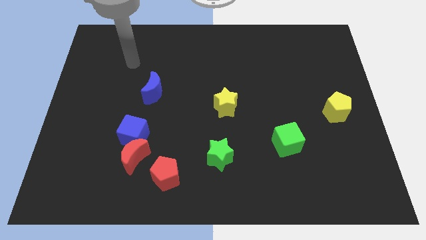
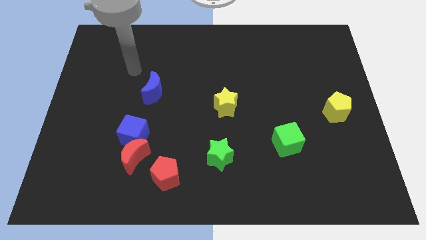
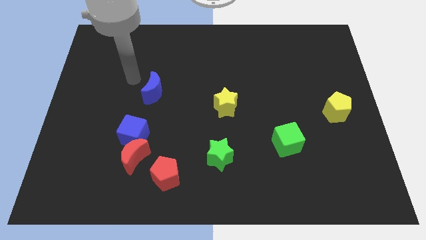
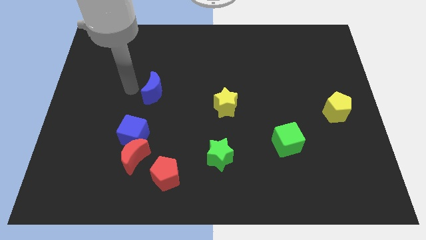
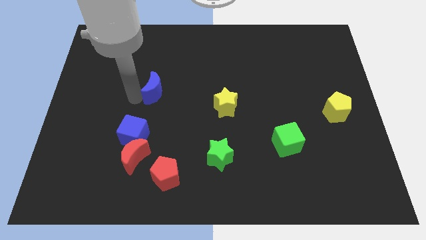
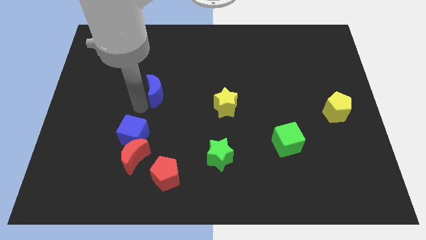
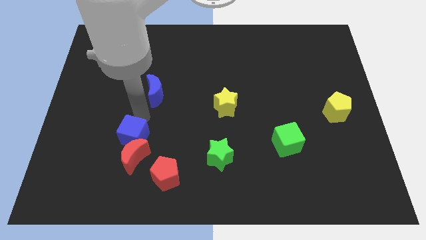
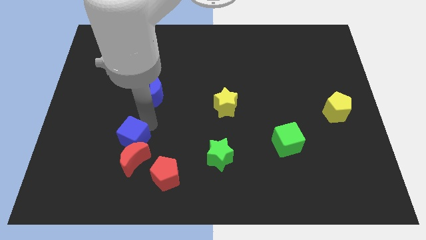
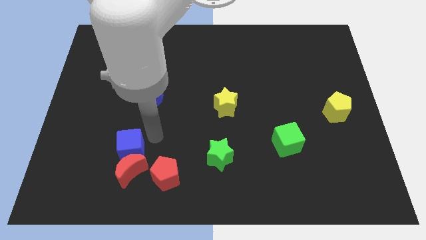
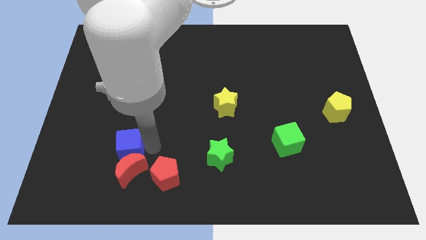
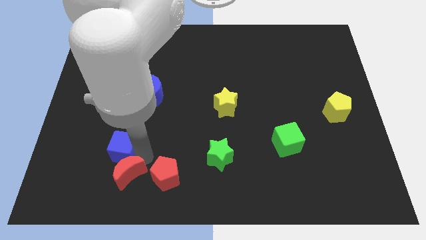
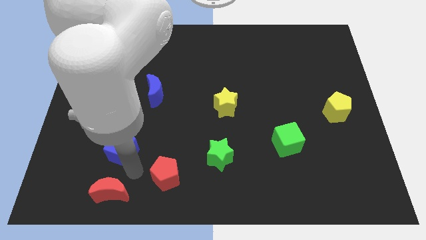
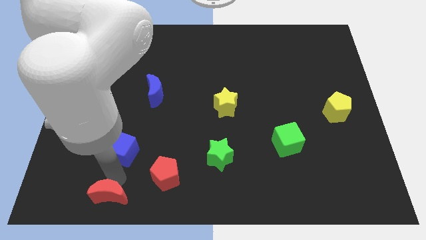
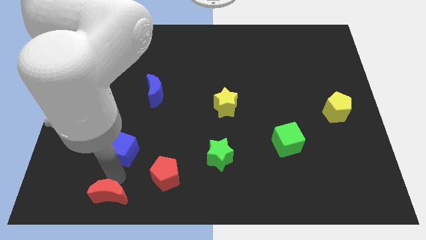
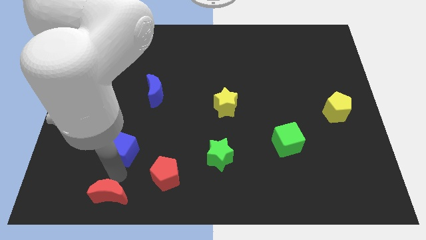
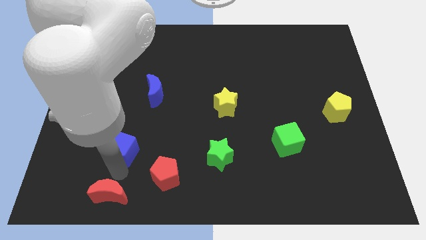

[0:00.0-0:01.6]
pull the blue cube apart from the red moon

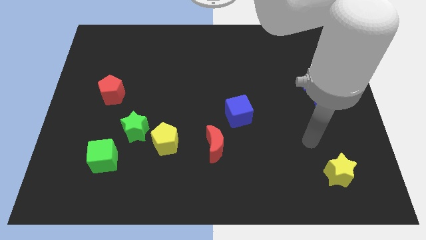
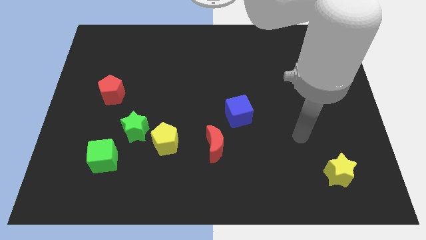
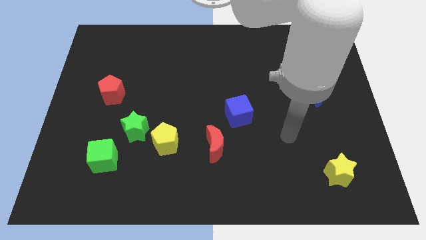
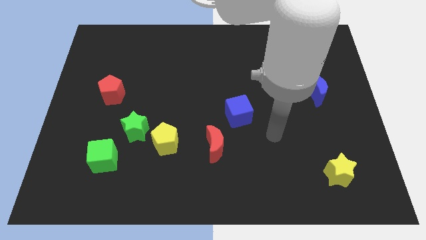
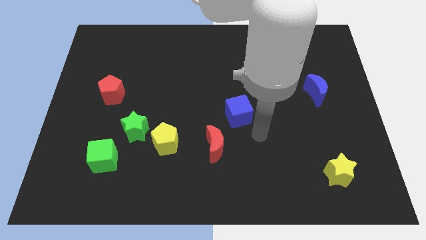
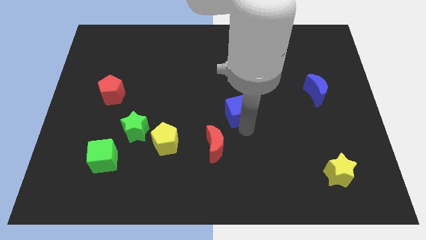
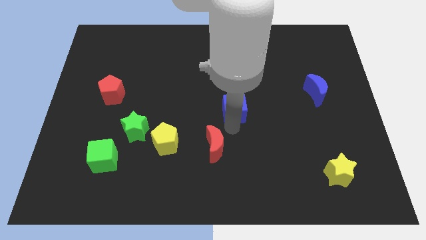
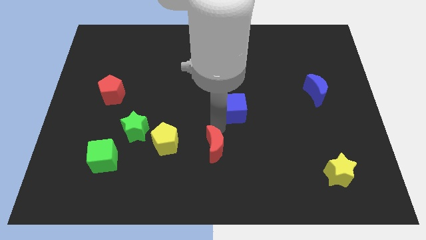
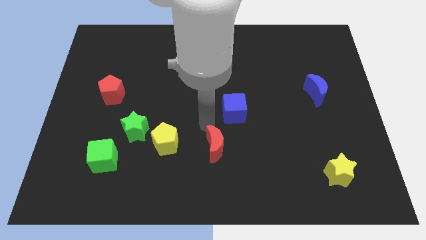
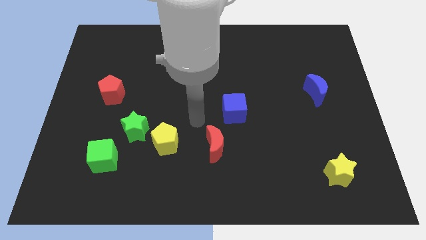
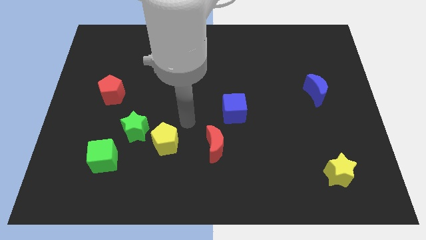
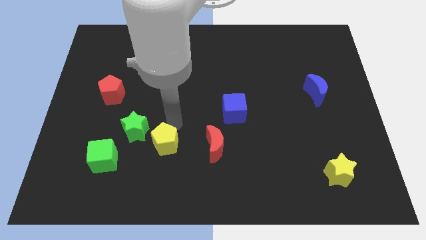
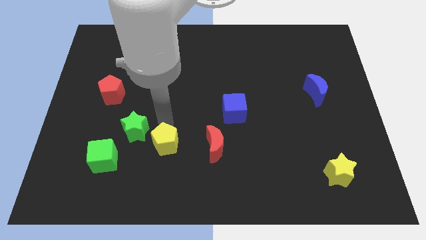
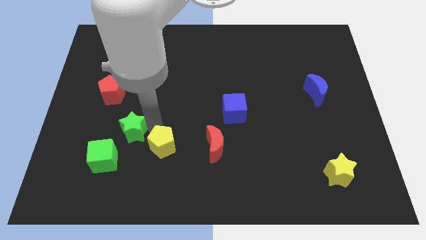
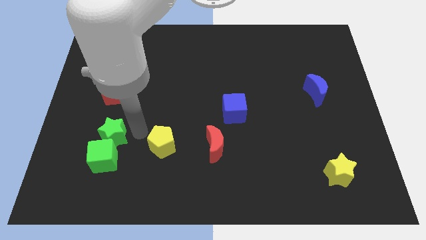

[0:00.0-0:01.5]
separate the yellow pentagon from the green star

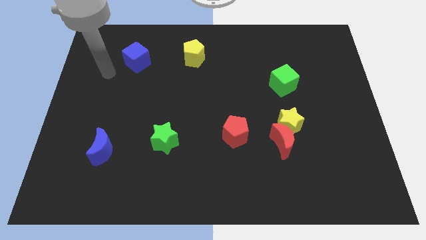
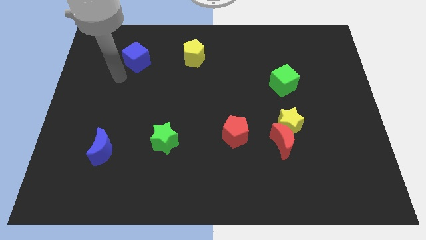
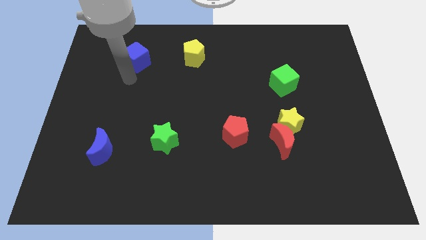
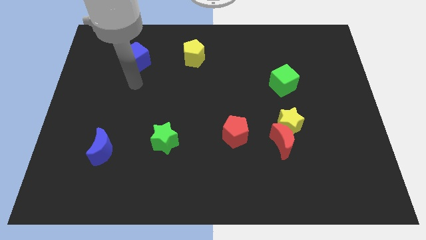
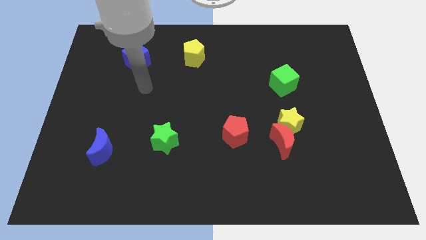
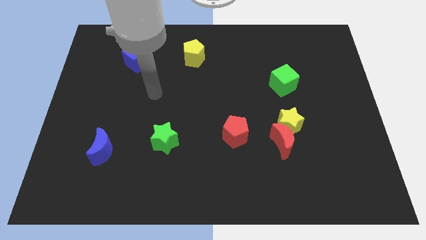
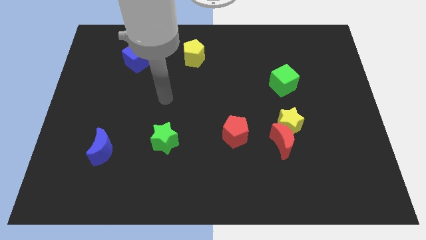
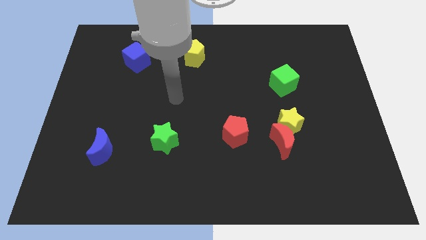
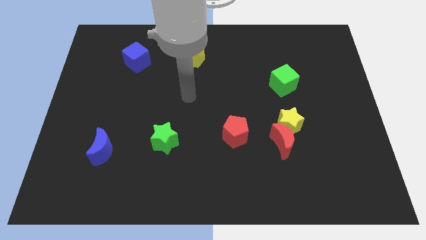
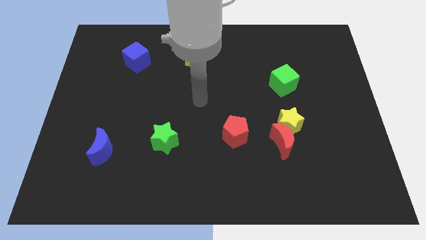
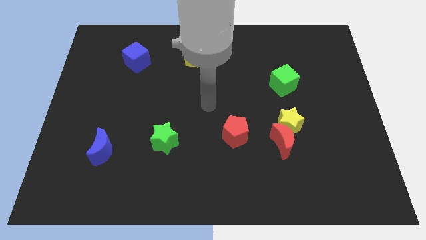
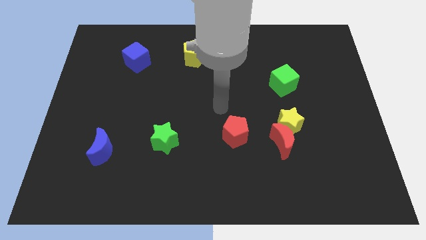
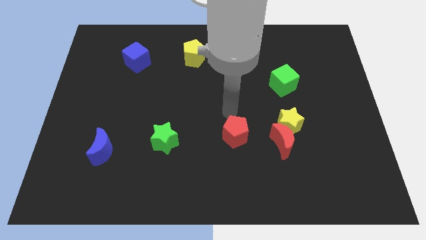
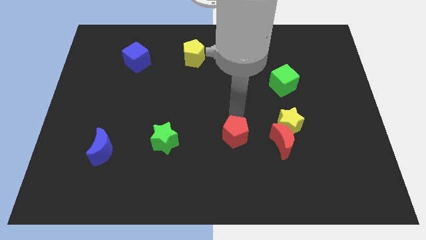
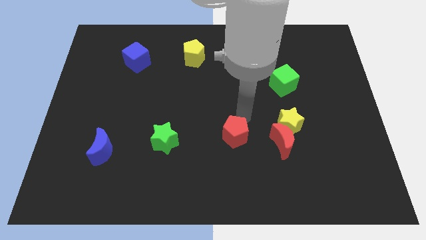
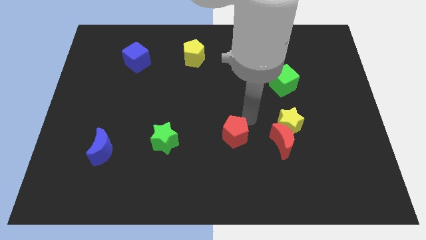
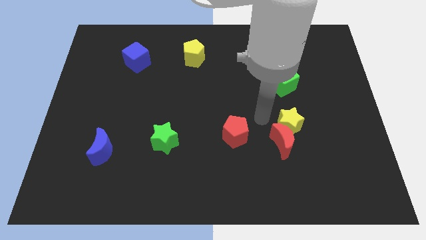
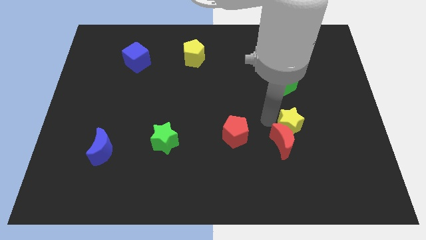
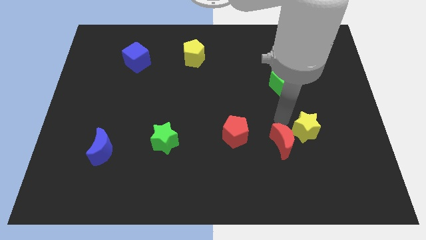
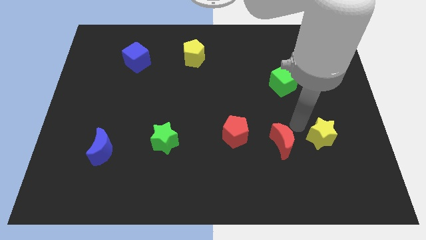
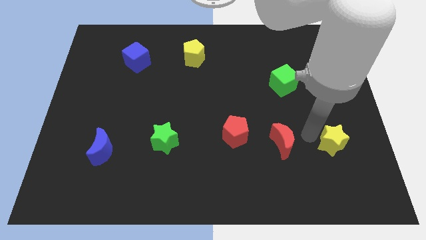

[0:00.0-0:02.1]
separate the red moon from the yellow star

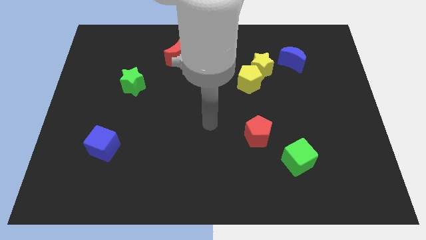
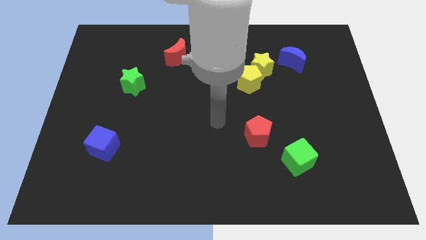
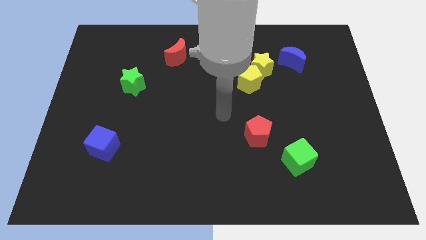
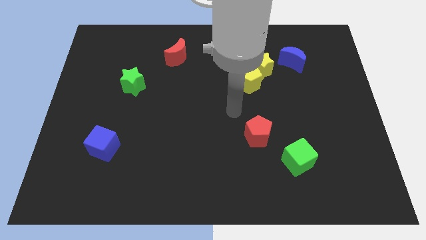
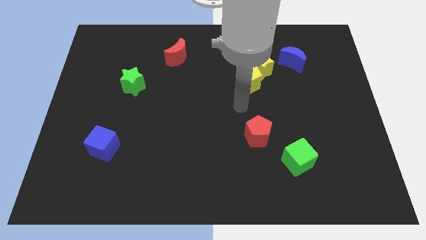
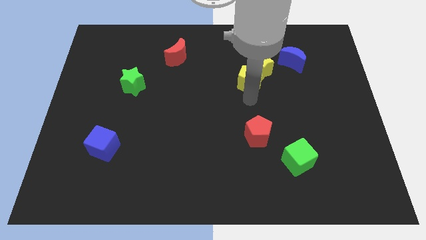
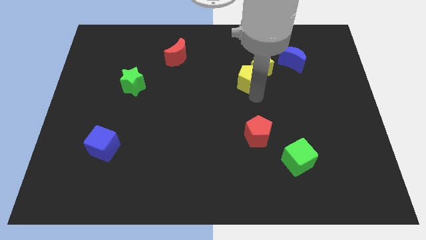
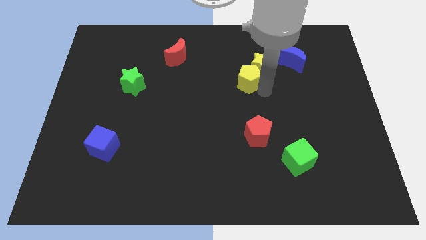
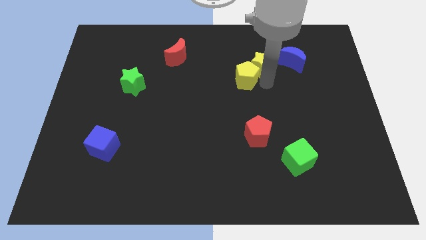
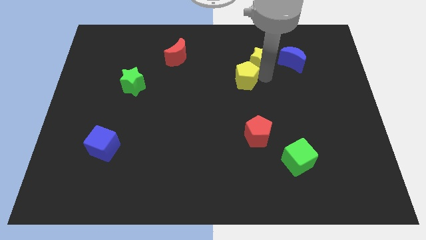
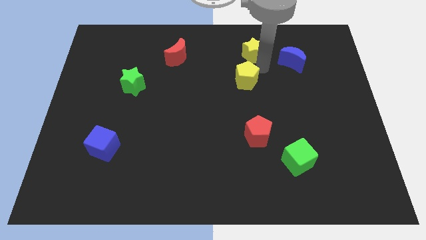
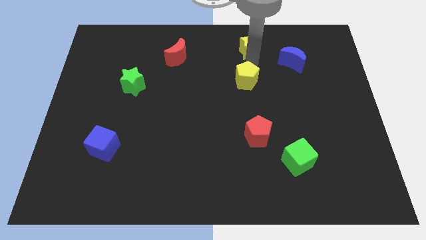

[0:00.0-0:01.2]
pull the yellow pentagon apart from the yellow star

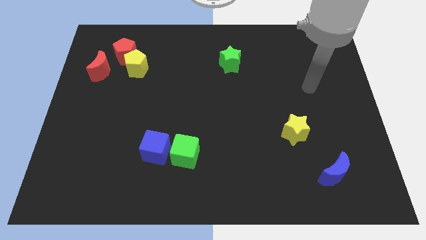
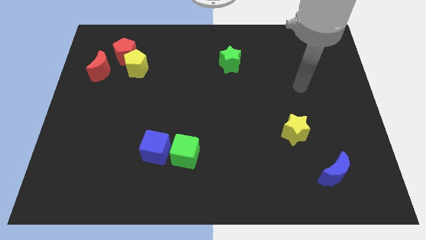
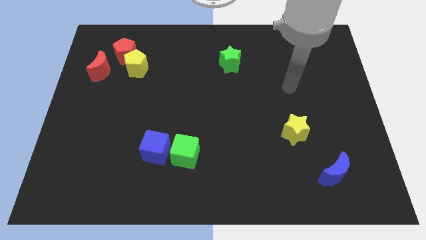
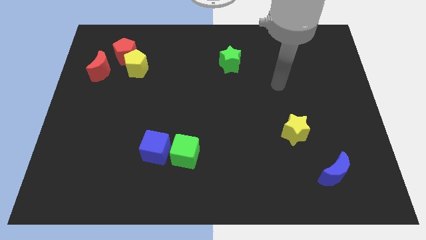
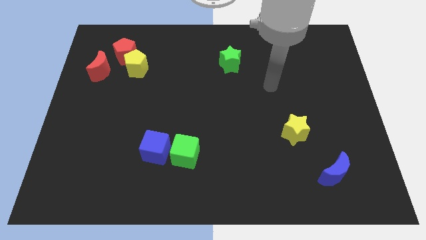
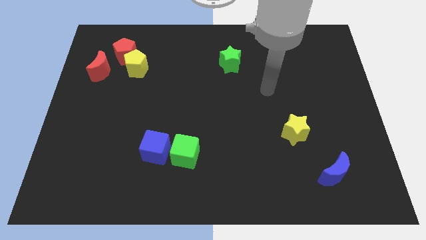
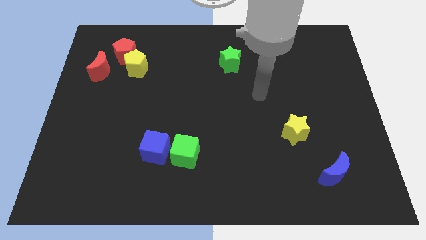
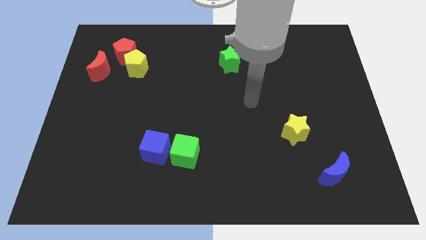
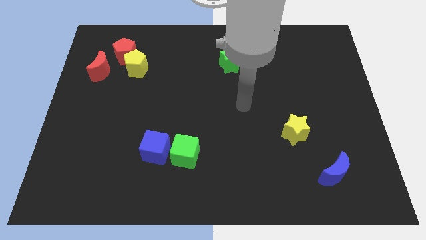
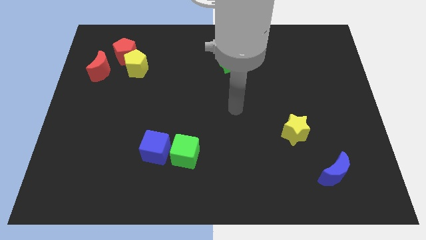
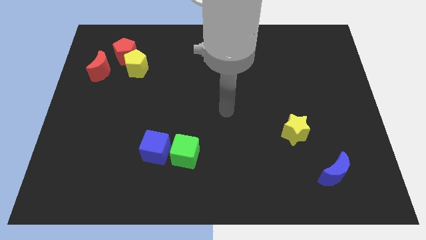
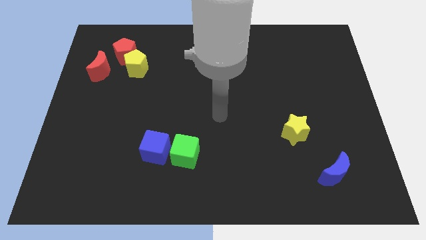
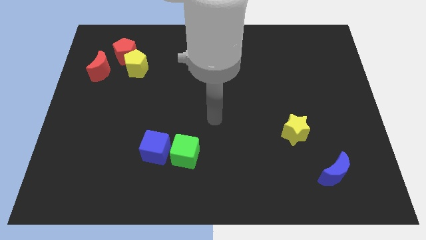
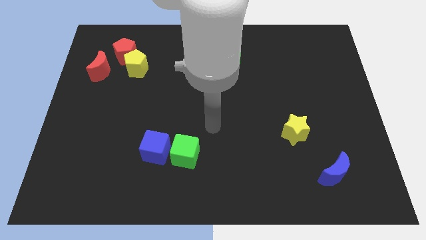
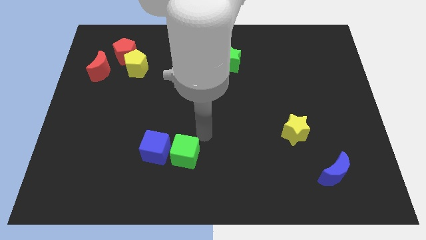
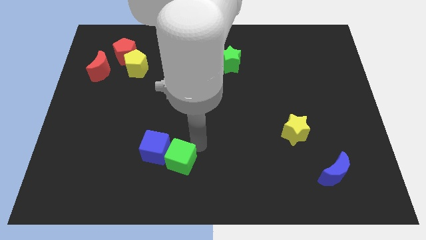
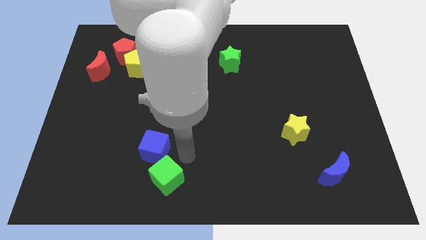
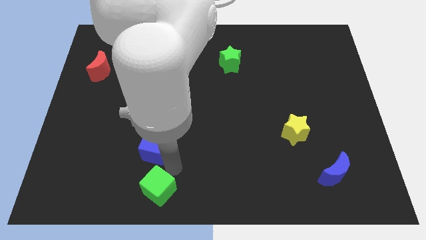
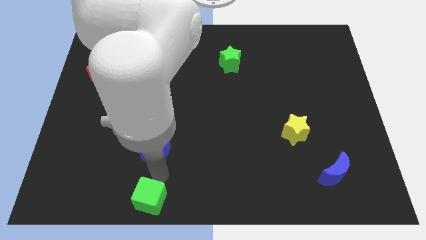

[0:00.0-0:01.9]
pull the blue cube apart from the green cube

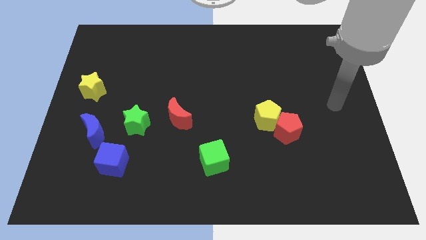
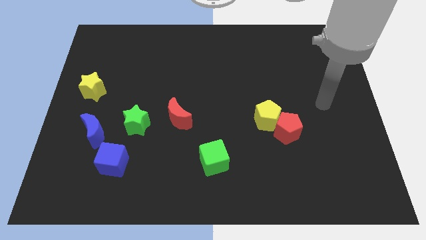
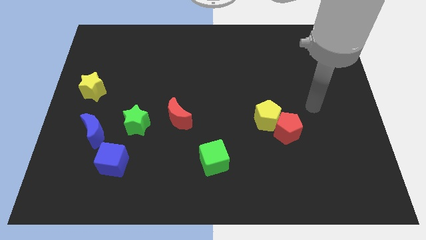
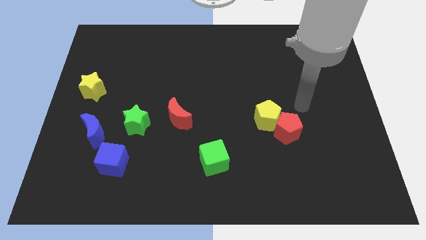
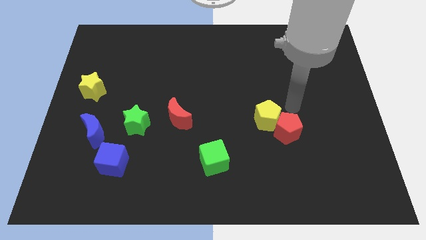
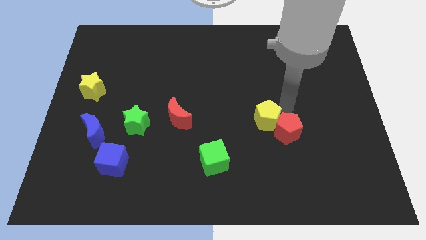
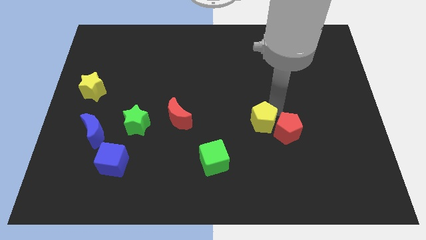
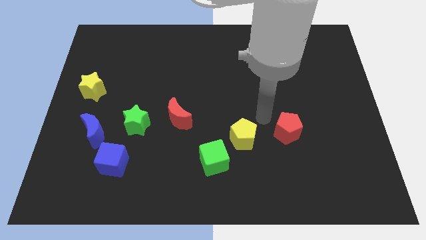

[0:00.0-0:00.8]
move the red pentagon away from the yellow pentagon

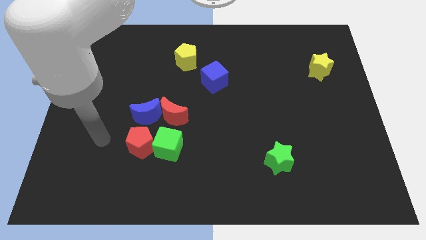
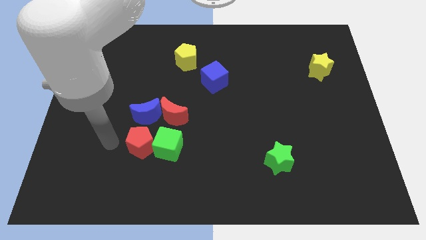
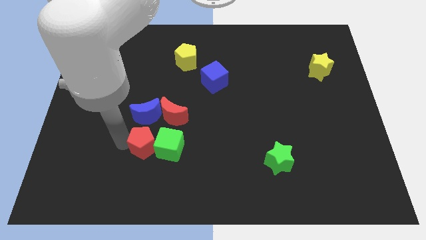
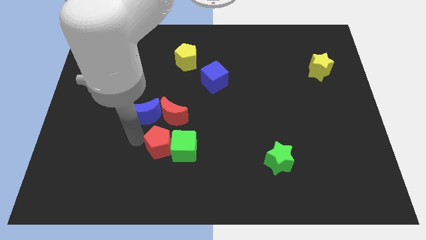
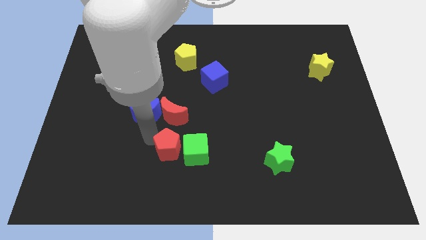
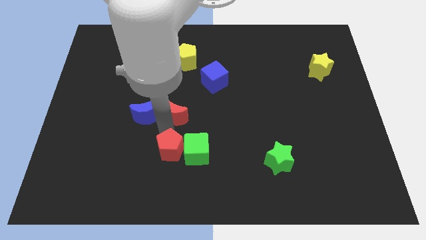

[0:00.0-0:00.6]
pull the blue moon apart from the clump
